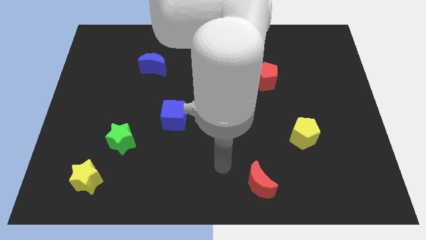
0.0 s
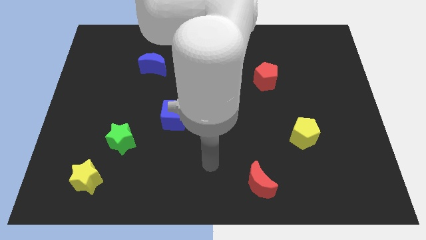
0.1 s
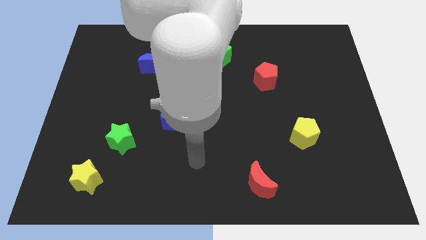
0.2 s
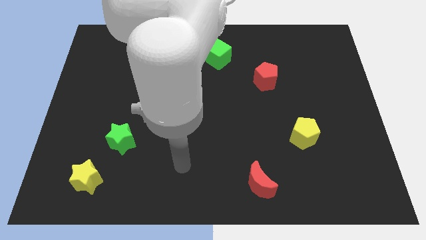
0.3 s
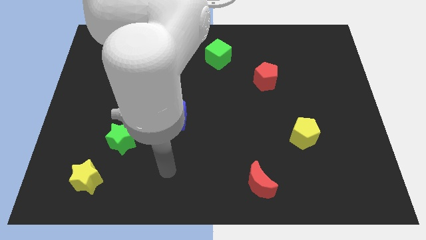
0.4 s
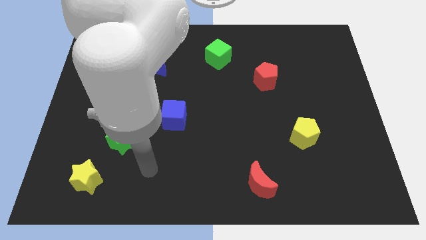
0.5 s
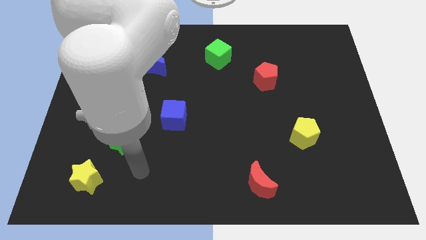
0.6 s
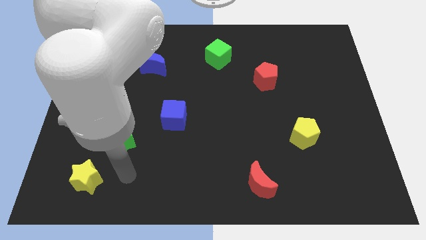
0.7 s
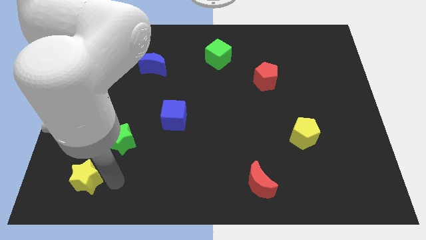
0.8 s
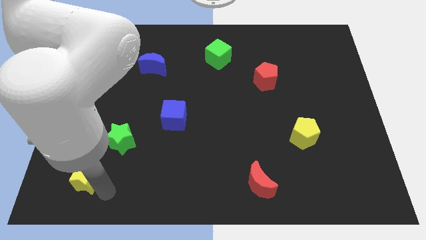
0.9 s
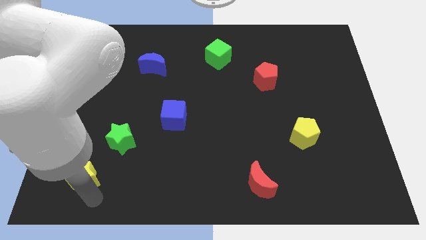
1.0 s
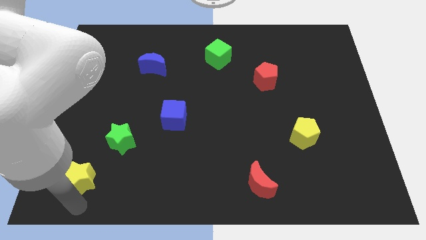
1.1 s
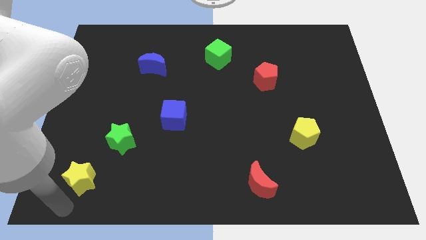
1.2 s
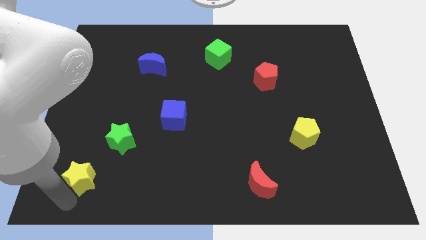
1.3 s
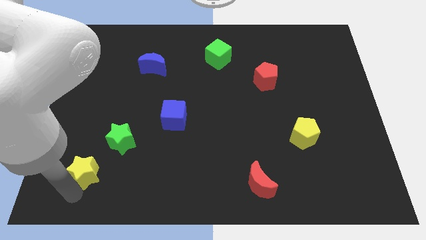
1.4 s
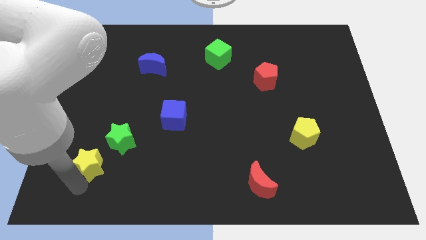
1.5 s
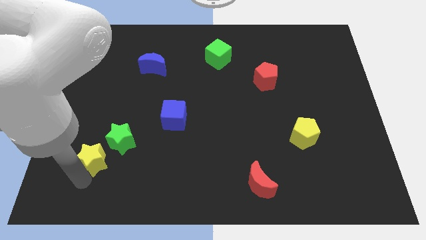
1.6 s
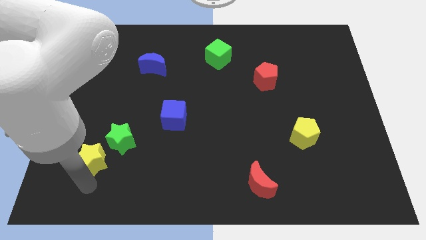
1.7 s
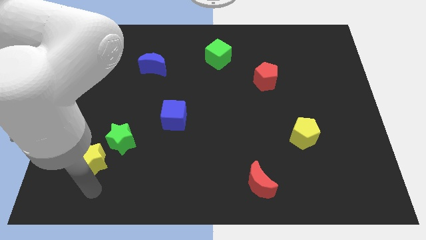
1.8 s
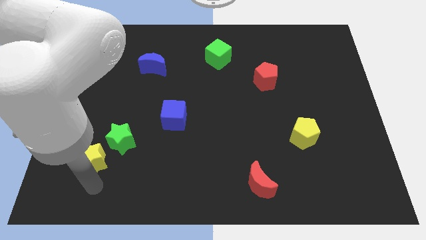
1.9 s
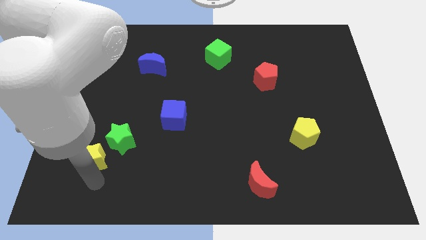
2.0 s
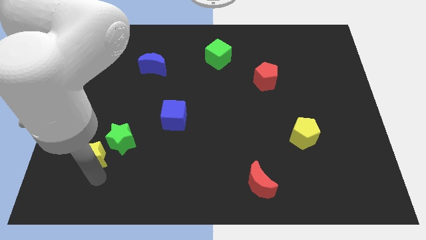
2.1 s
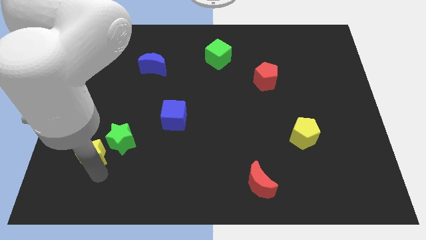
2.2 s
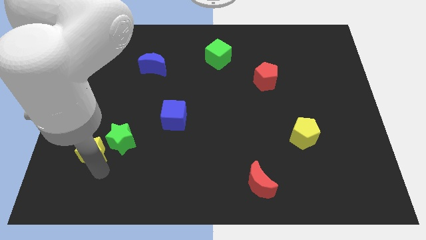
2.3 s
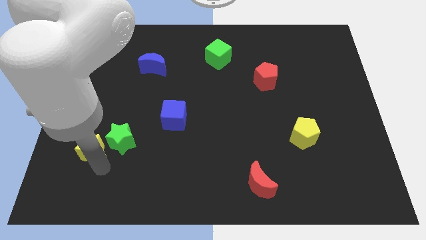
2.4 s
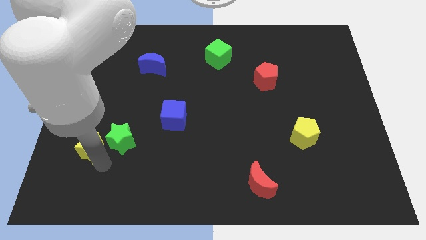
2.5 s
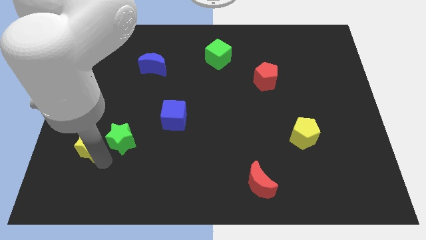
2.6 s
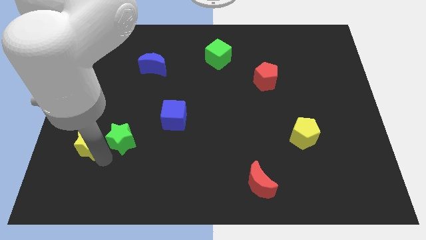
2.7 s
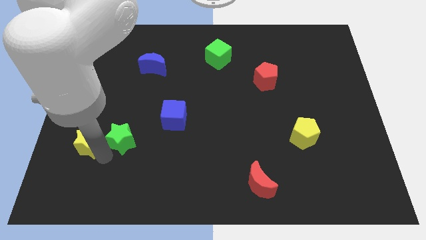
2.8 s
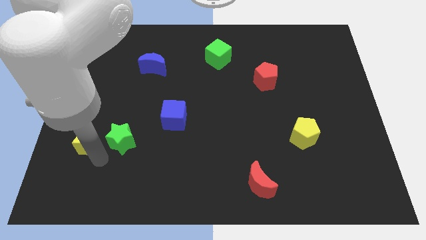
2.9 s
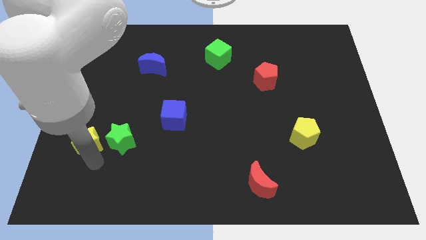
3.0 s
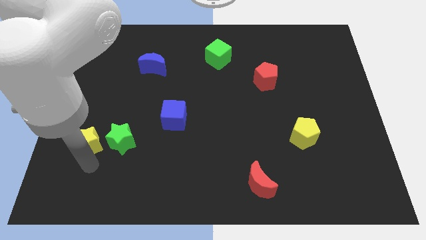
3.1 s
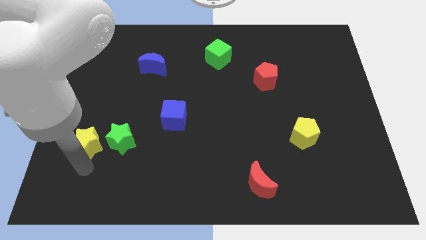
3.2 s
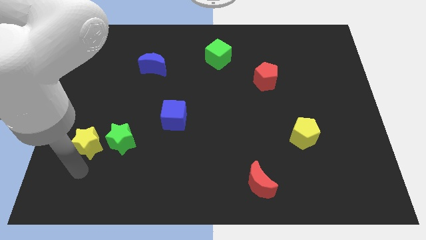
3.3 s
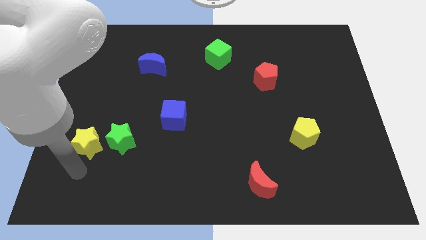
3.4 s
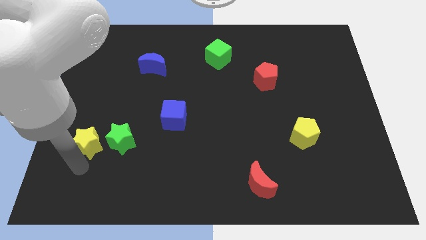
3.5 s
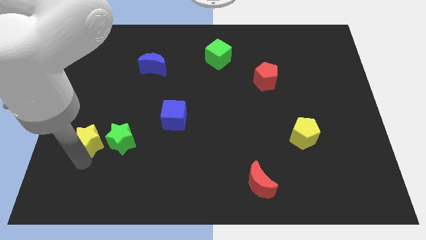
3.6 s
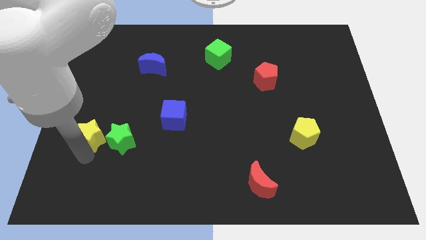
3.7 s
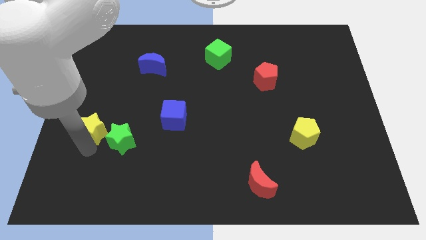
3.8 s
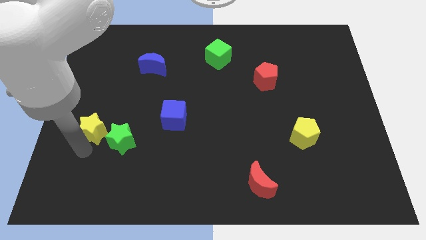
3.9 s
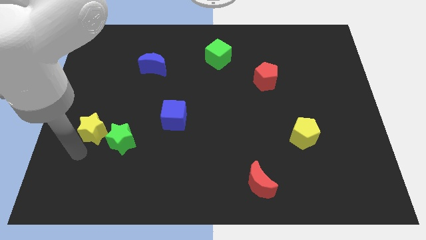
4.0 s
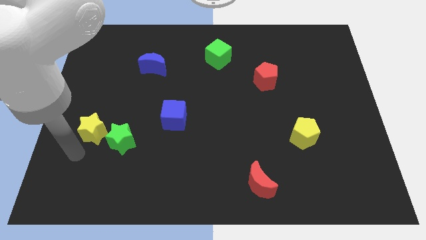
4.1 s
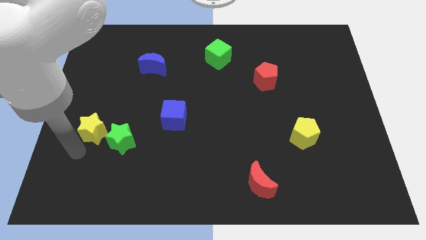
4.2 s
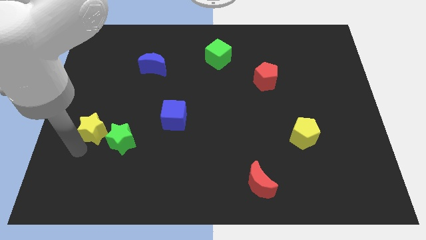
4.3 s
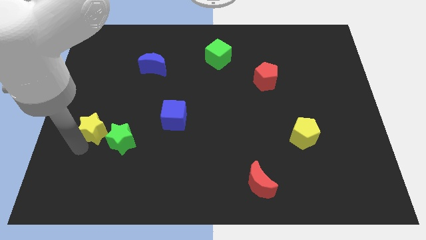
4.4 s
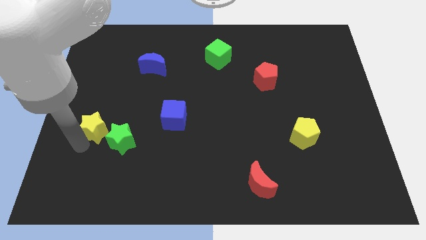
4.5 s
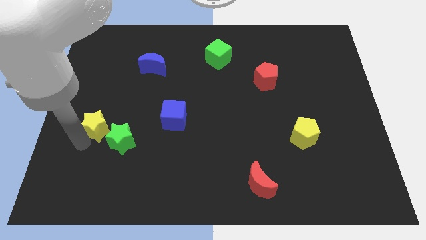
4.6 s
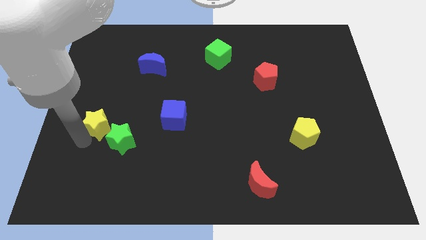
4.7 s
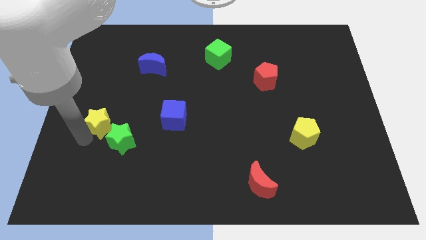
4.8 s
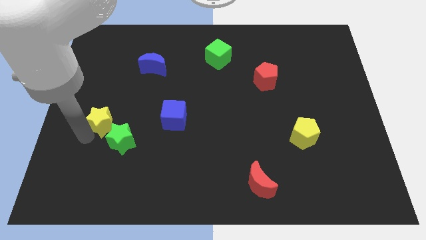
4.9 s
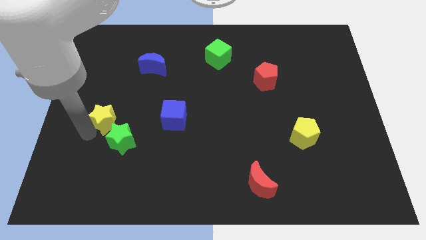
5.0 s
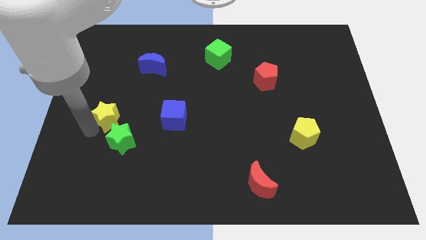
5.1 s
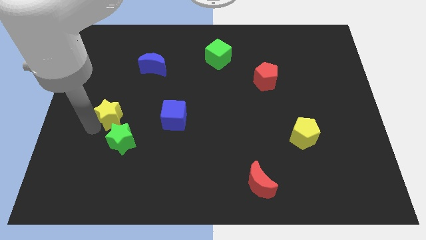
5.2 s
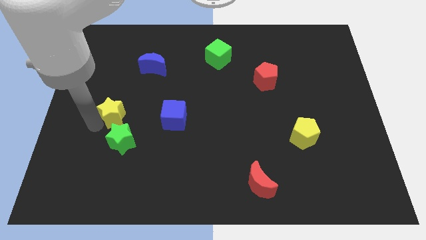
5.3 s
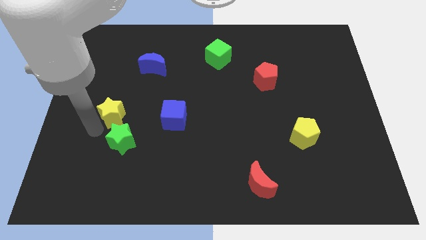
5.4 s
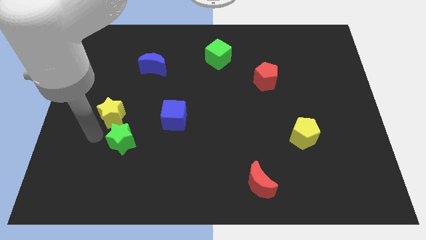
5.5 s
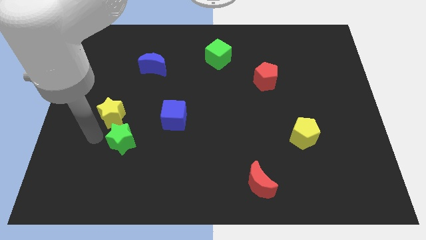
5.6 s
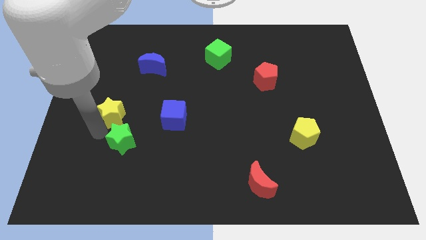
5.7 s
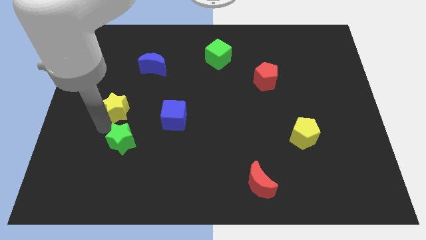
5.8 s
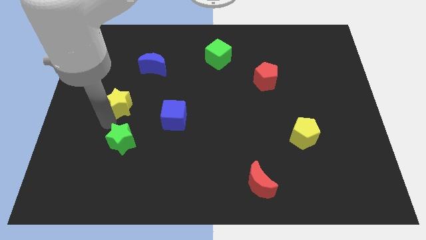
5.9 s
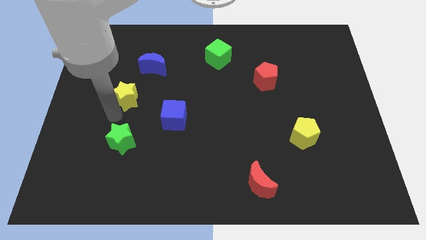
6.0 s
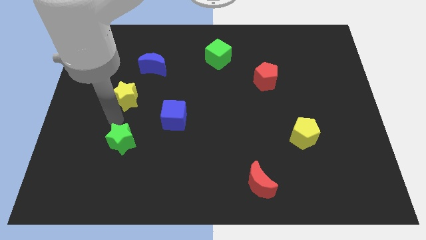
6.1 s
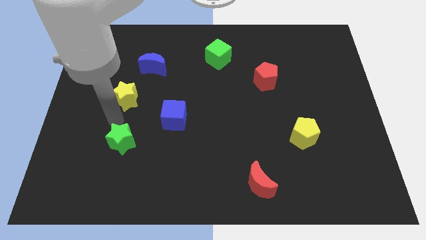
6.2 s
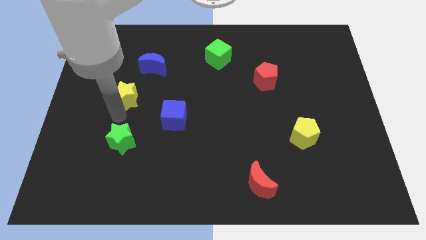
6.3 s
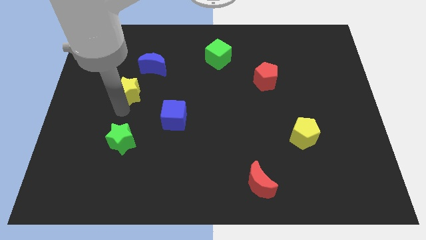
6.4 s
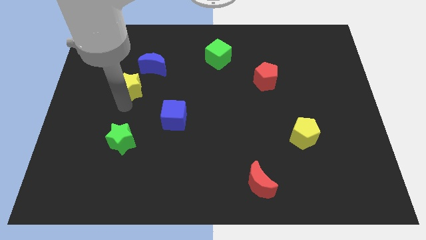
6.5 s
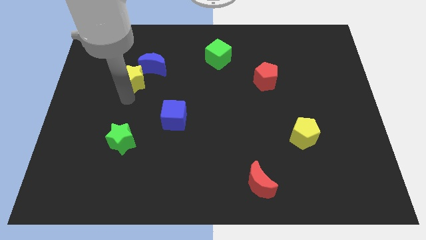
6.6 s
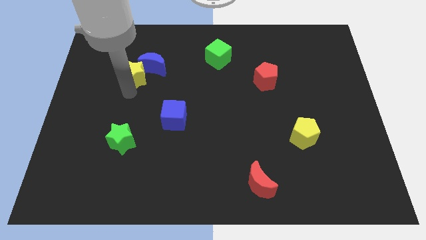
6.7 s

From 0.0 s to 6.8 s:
slide the yellow star close to the blue moon

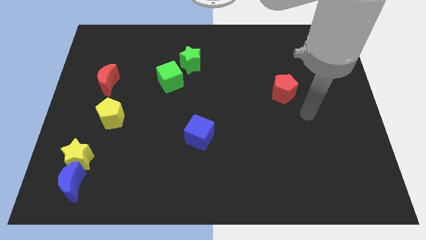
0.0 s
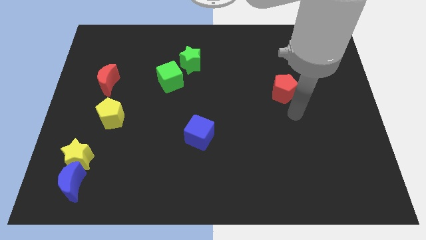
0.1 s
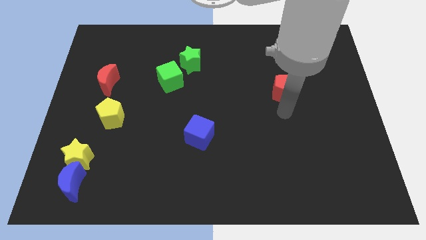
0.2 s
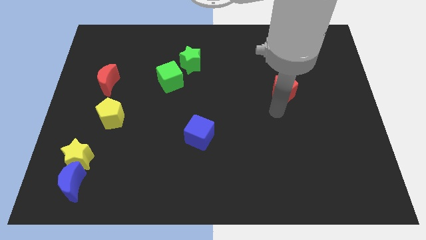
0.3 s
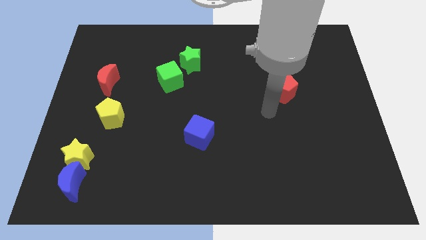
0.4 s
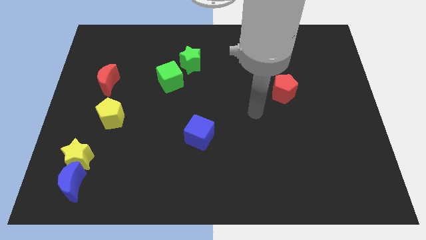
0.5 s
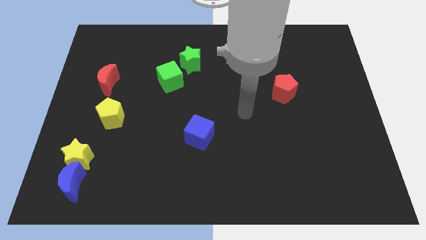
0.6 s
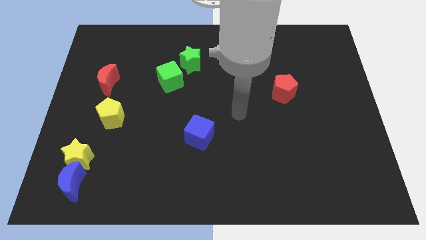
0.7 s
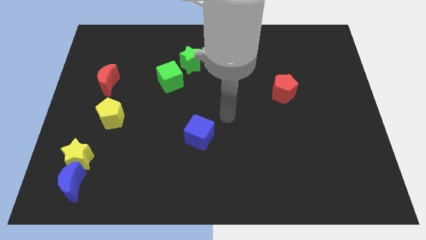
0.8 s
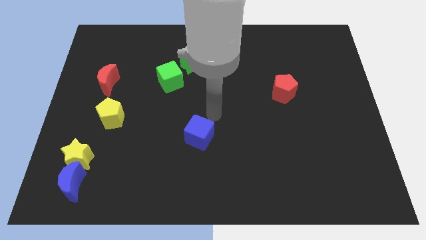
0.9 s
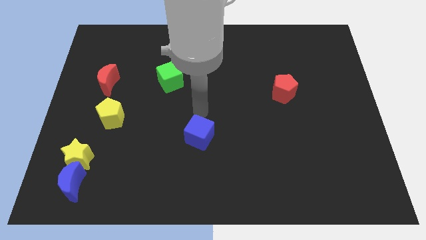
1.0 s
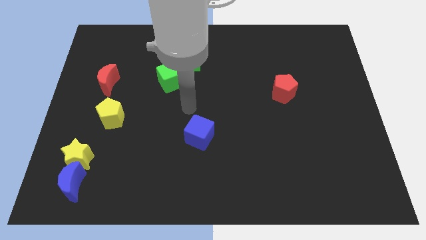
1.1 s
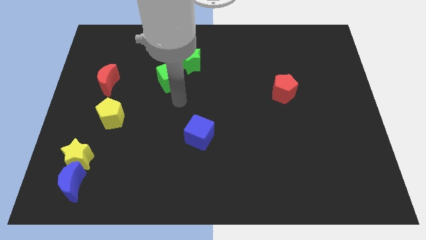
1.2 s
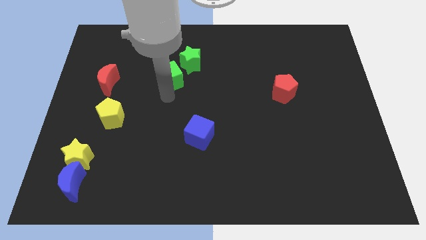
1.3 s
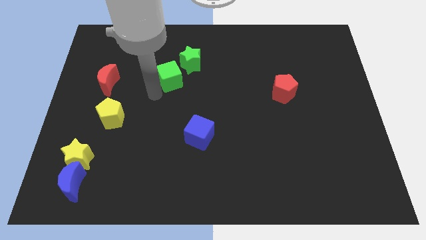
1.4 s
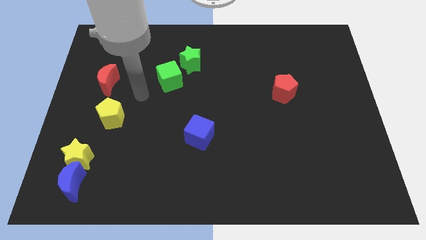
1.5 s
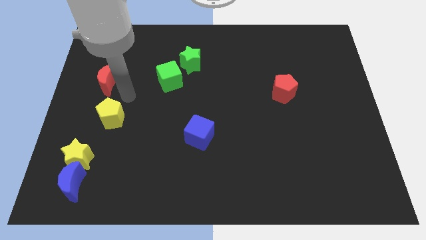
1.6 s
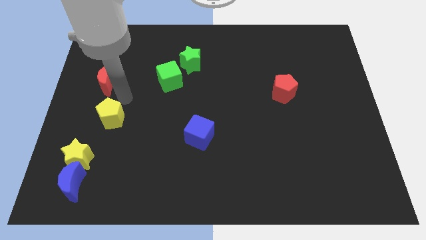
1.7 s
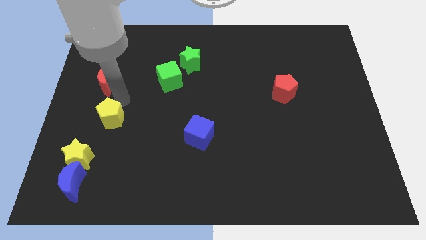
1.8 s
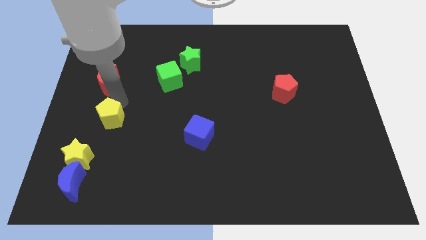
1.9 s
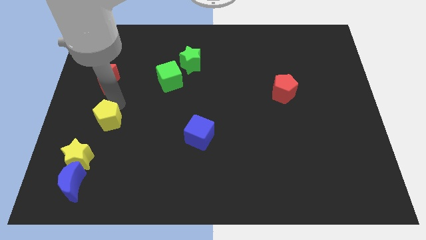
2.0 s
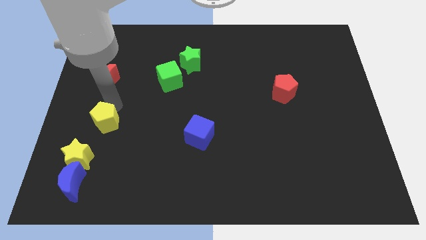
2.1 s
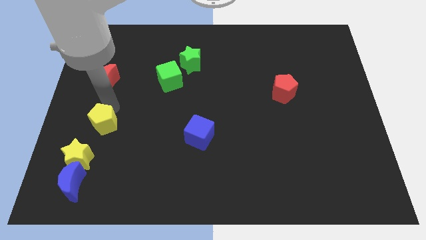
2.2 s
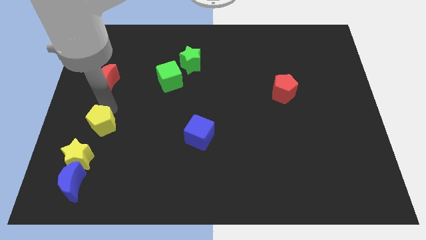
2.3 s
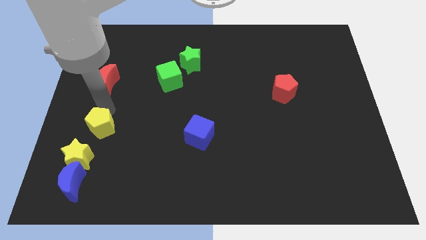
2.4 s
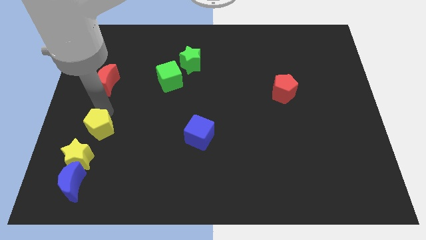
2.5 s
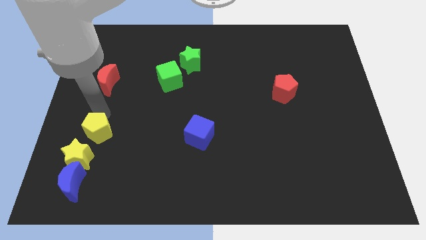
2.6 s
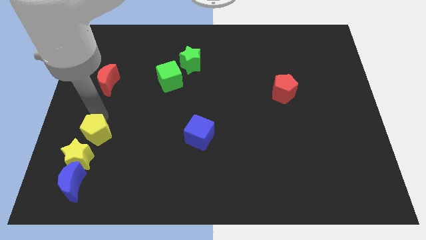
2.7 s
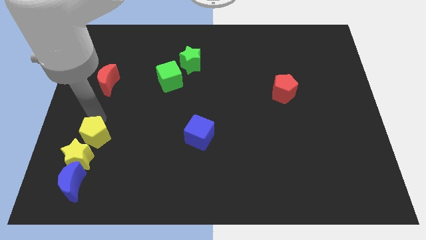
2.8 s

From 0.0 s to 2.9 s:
slide the yellow pentagon next to the yellow star
